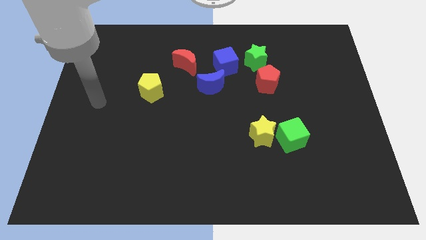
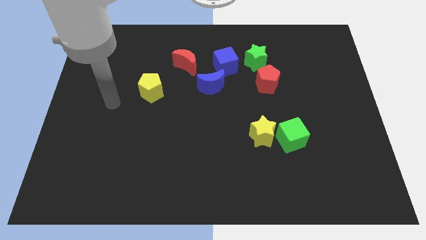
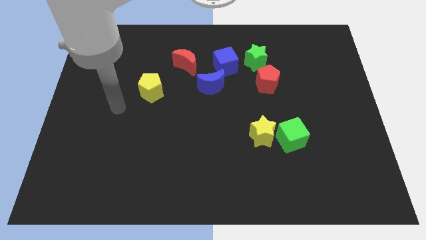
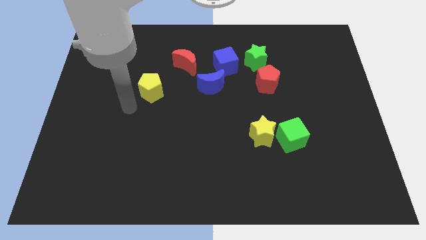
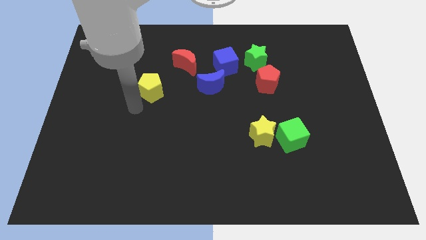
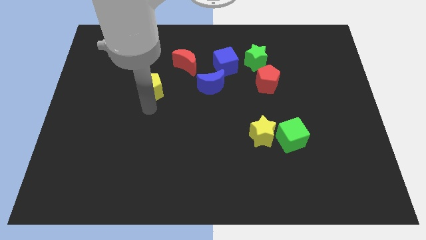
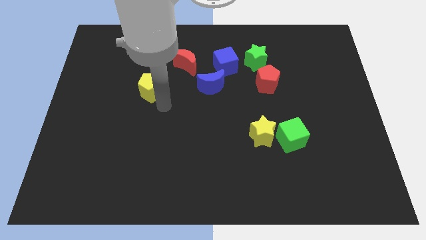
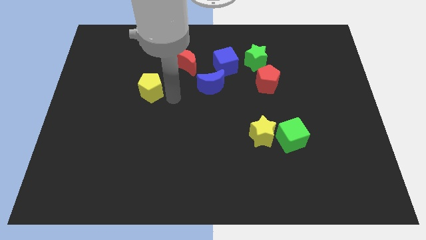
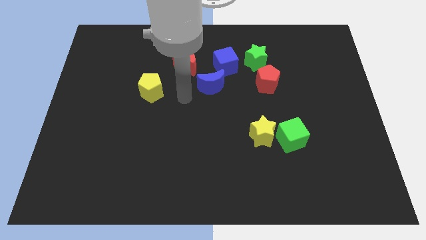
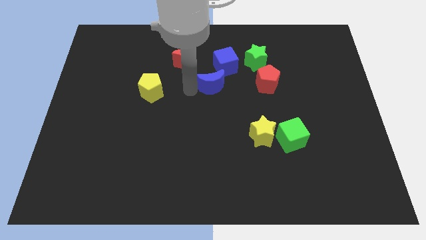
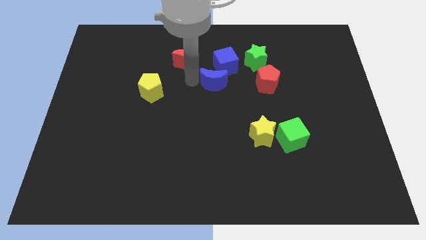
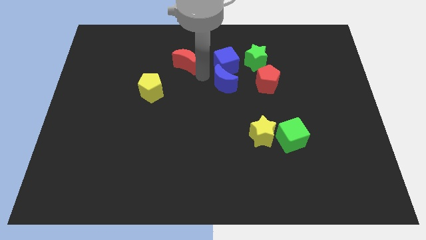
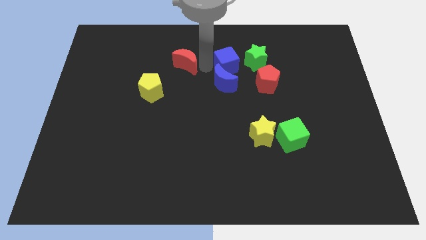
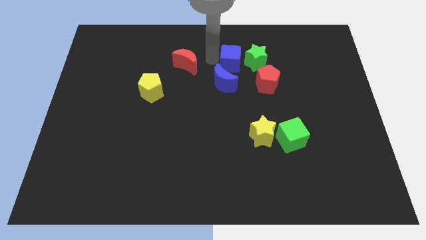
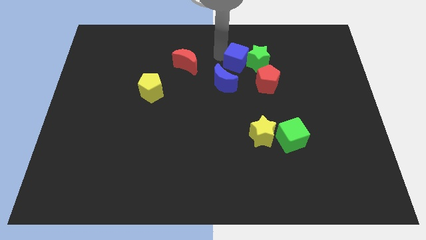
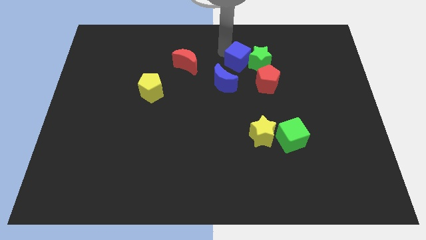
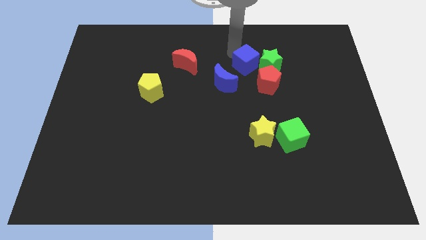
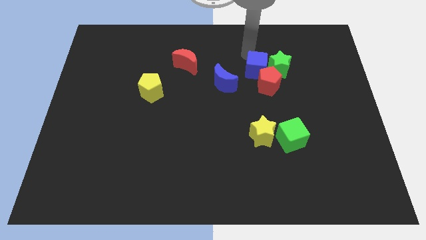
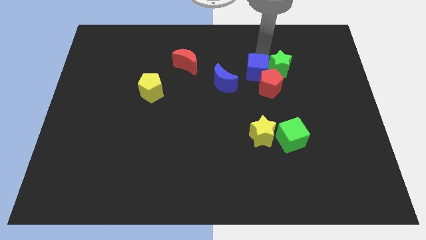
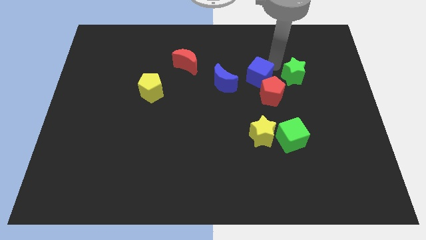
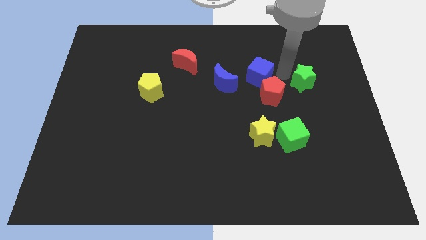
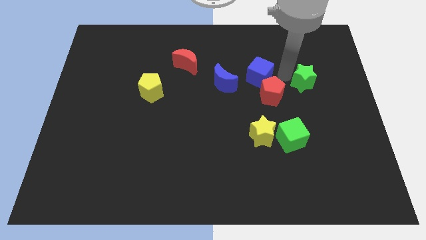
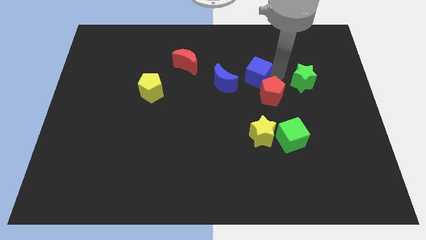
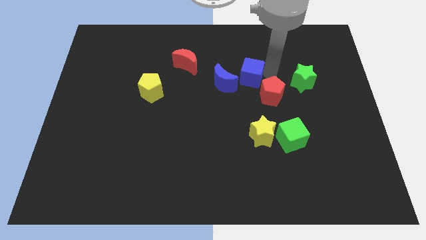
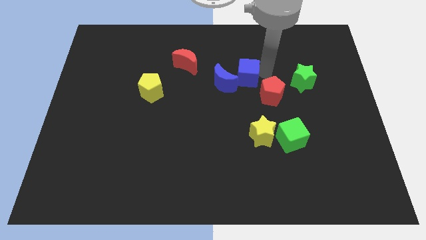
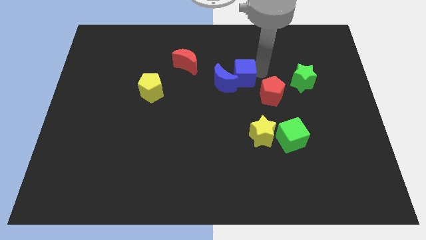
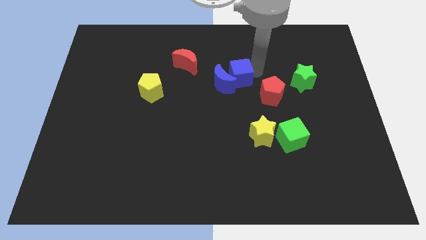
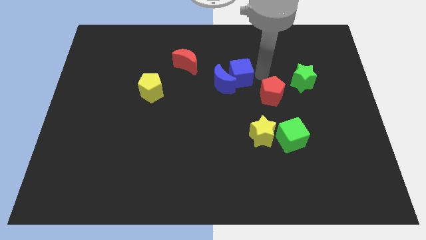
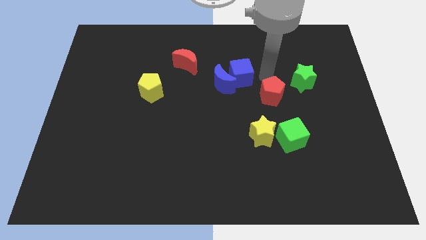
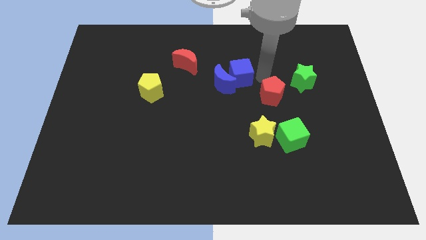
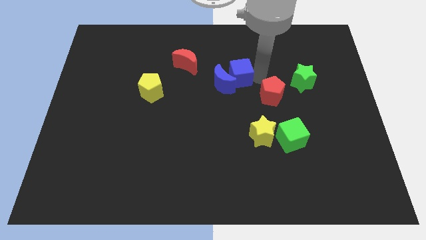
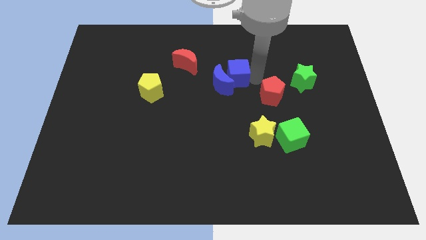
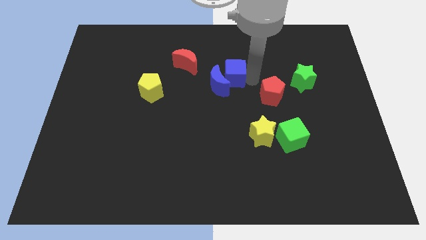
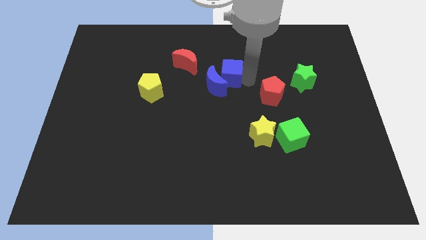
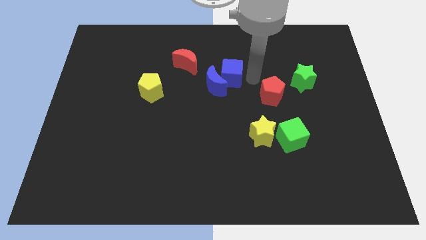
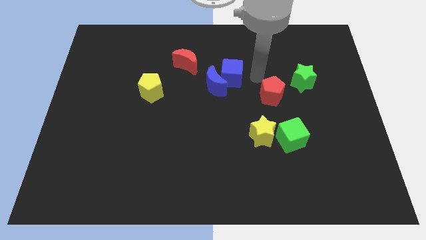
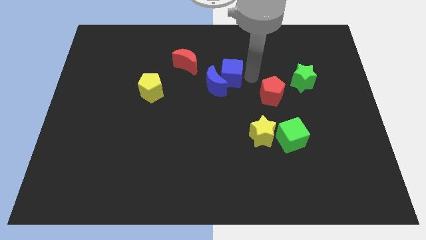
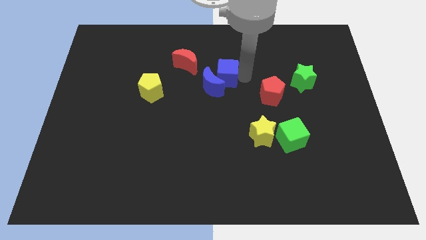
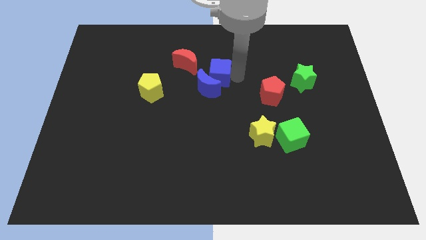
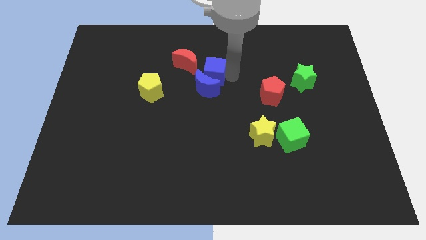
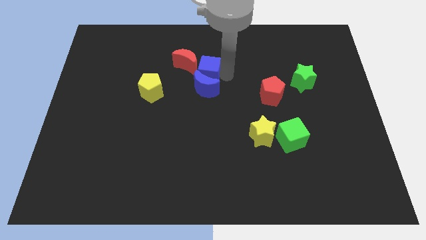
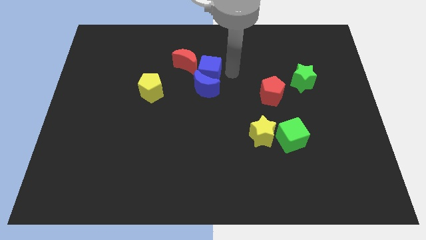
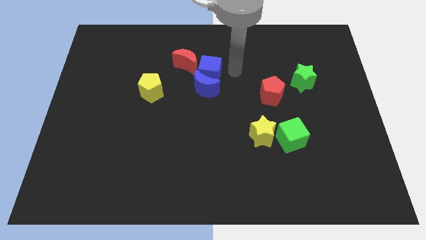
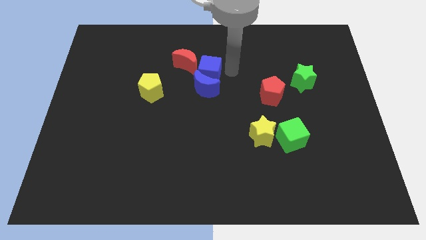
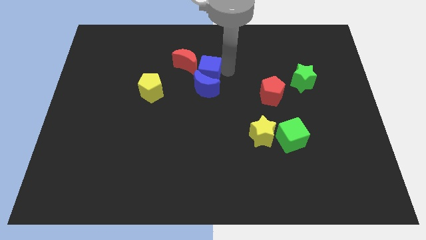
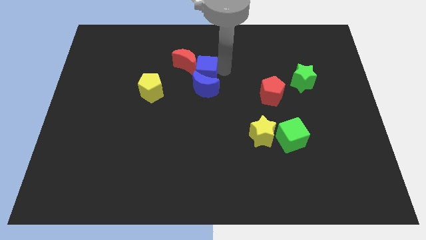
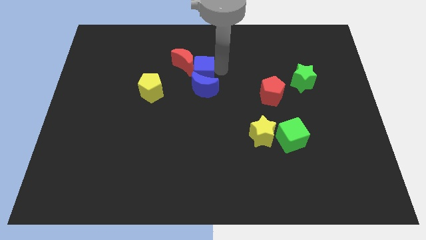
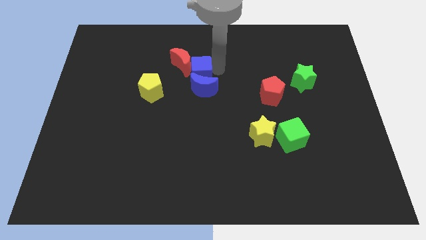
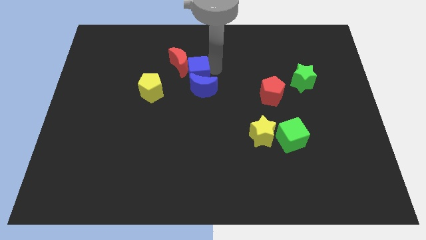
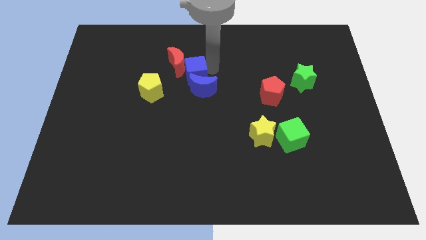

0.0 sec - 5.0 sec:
slide the blue cube a bit left

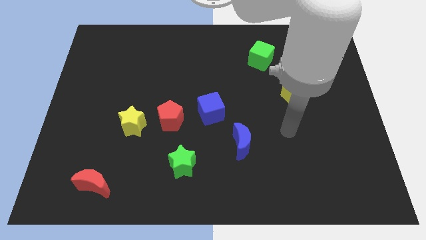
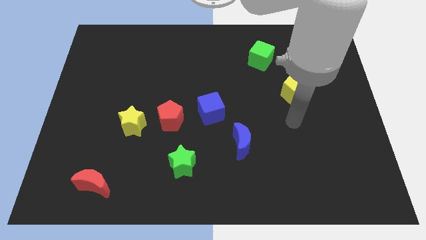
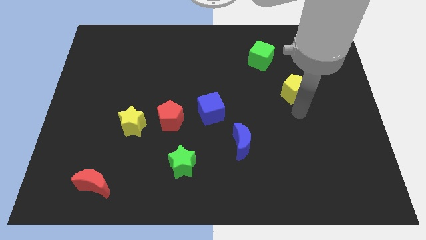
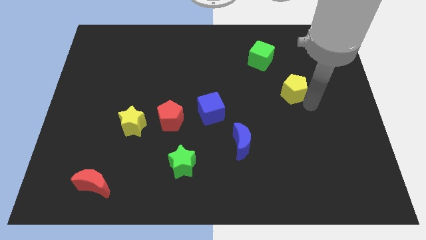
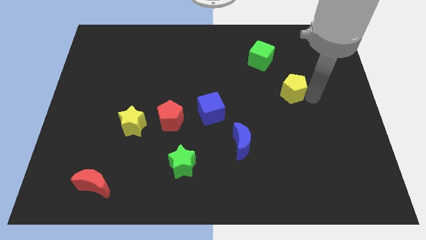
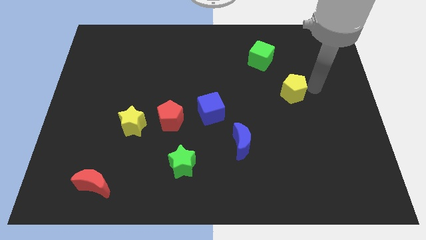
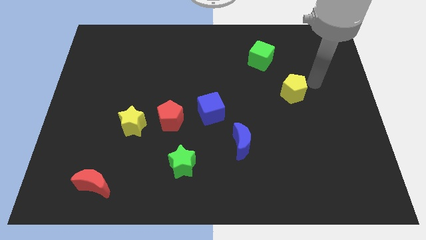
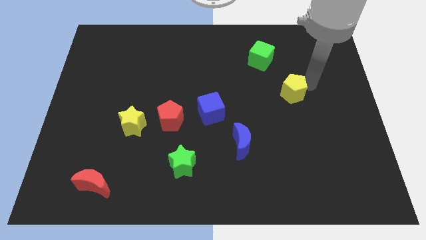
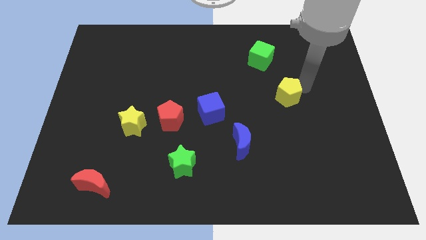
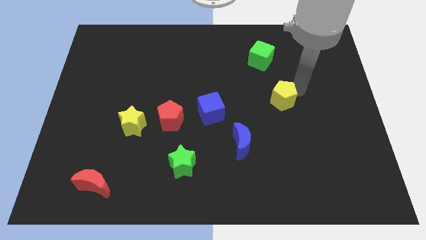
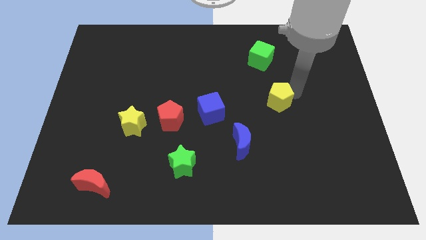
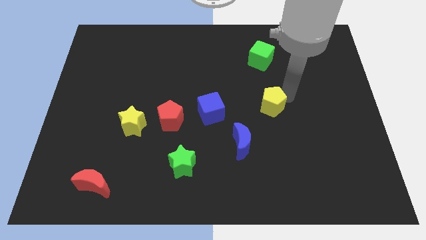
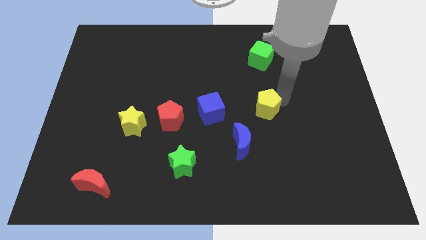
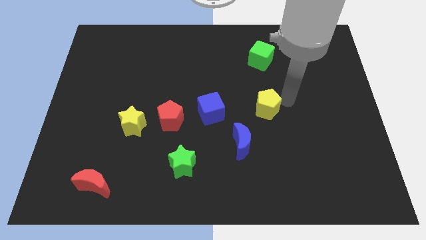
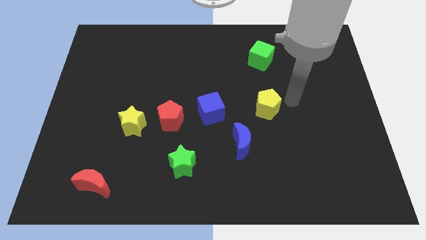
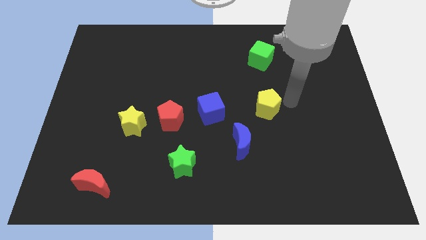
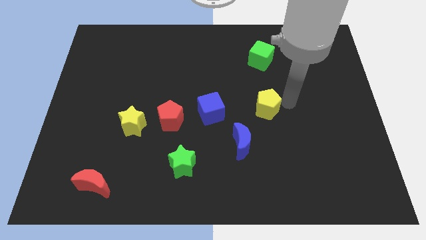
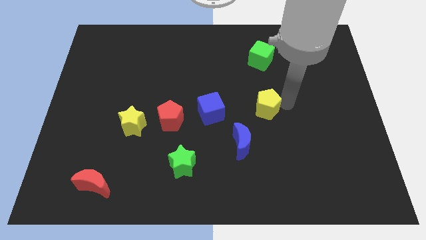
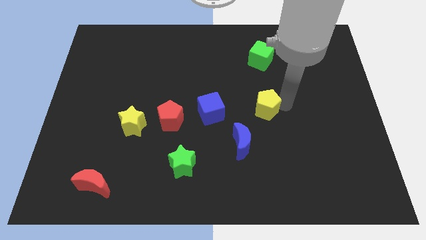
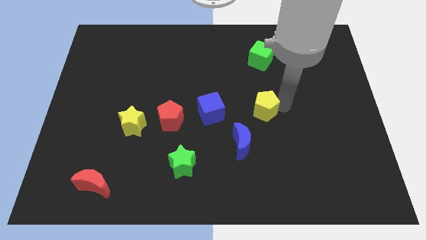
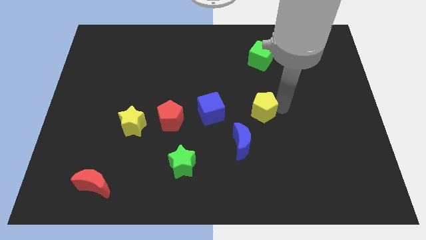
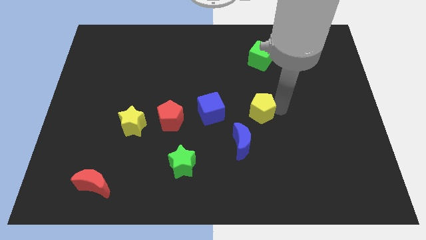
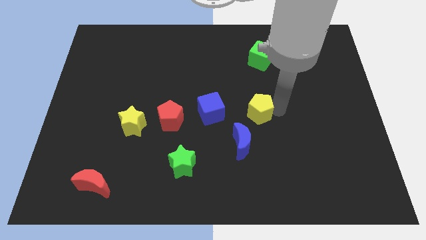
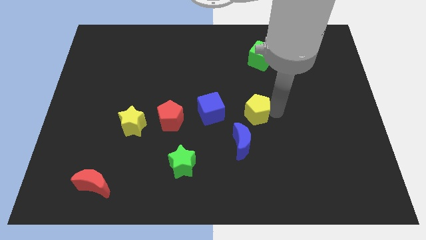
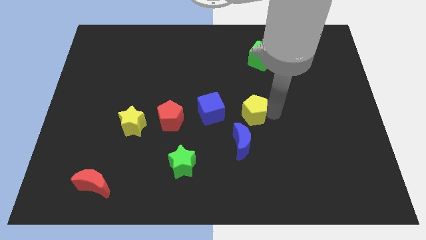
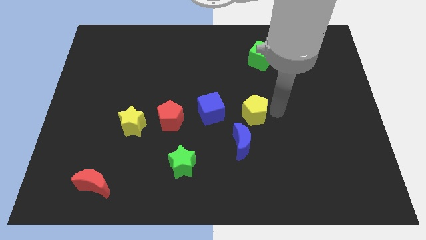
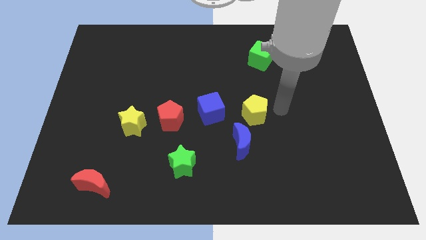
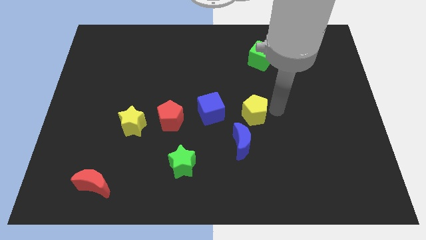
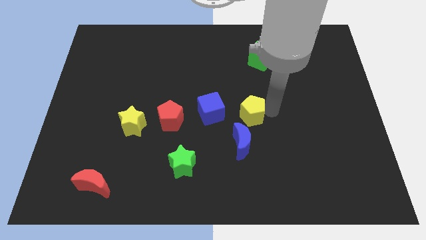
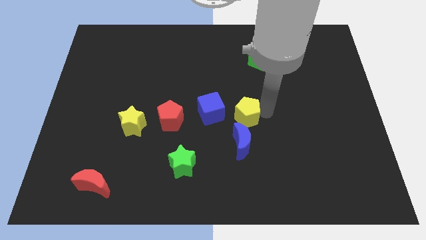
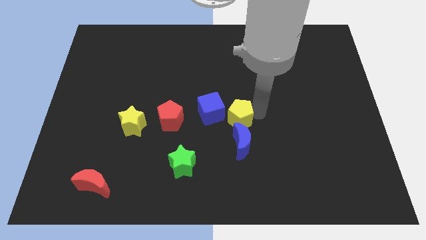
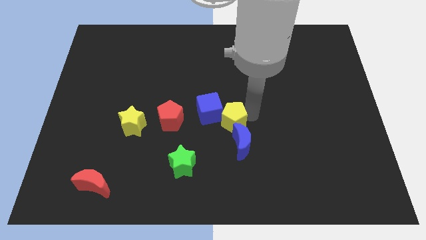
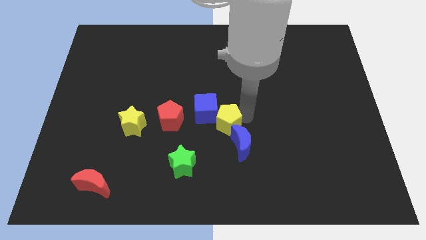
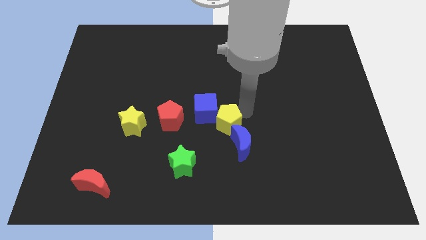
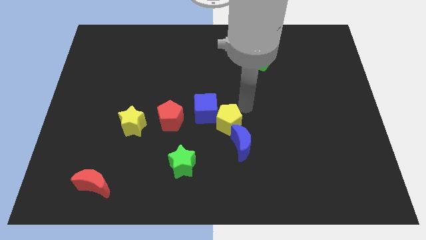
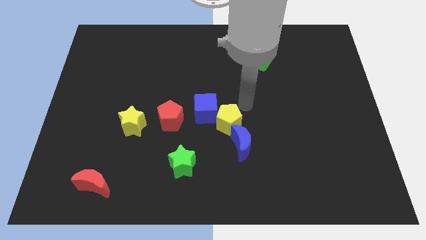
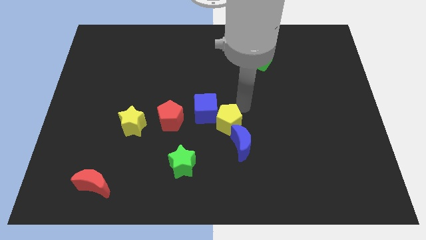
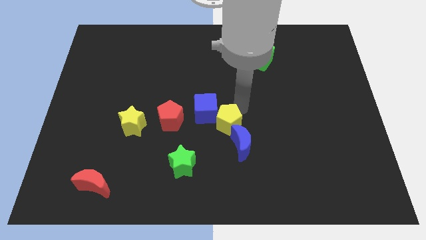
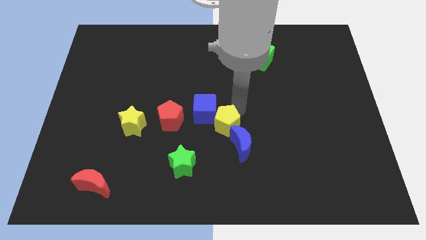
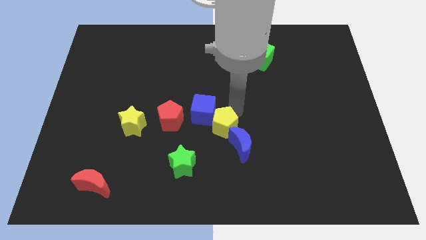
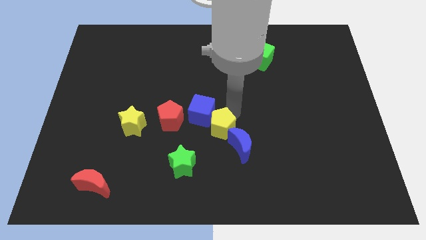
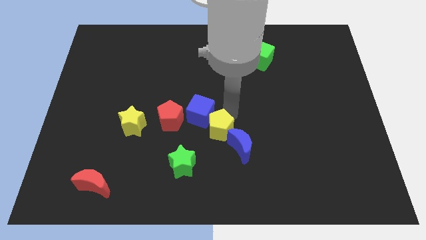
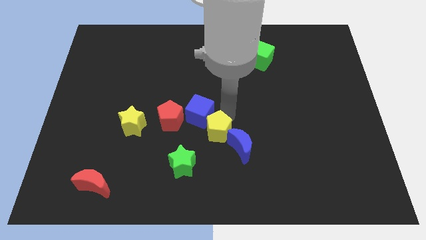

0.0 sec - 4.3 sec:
slide the yellow pentagon down and to the left diagonally
